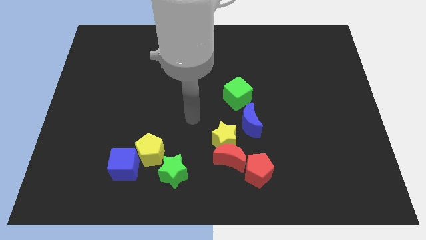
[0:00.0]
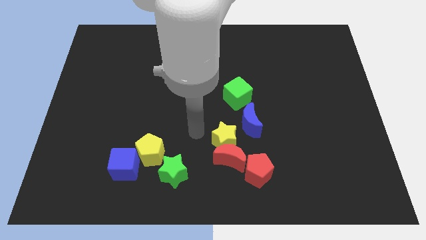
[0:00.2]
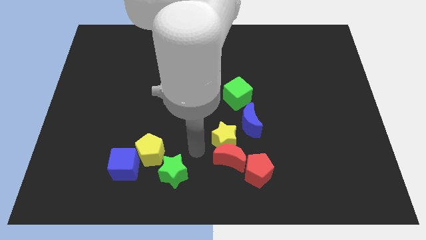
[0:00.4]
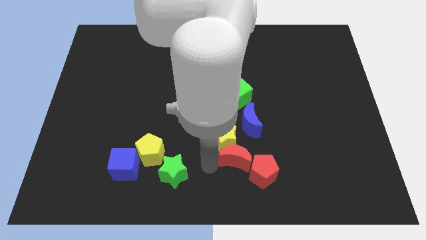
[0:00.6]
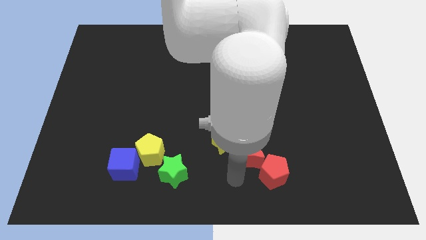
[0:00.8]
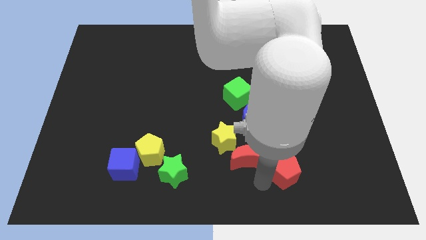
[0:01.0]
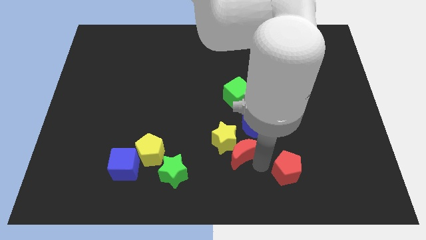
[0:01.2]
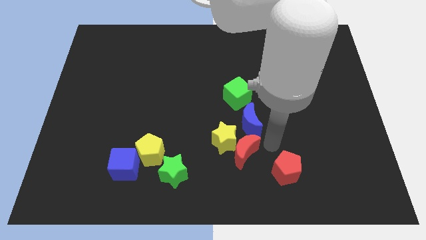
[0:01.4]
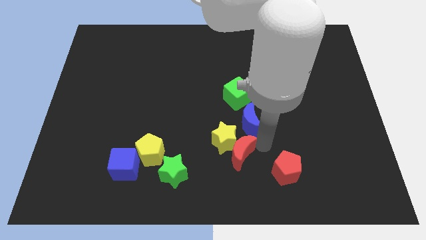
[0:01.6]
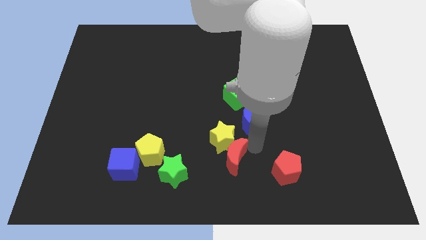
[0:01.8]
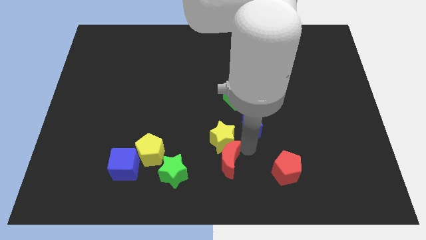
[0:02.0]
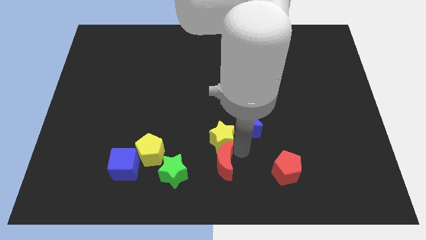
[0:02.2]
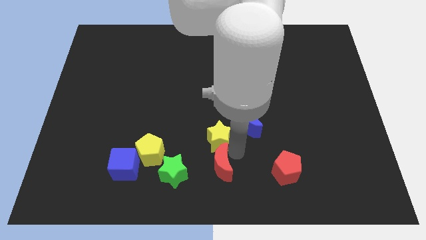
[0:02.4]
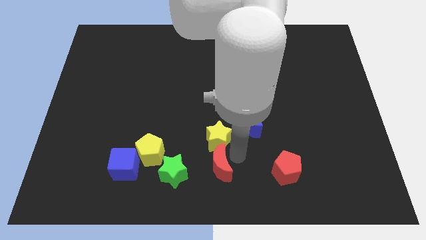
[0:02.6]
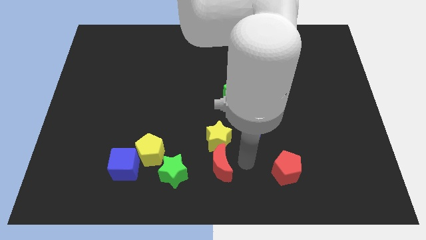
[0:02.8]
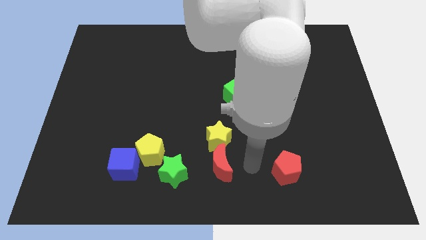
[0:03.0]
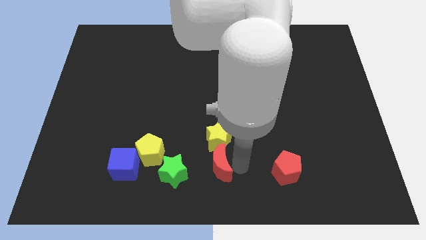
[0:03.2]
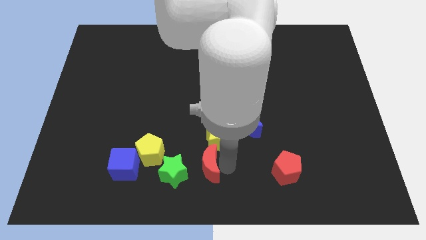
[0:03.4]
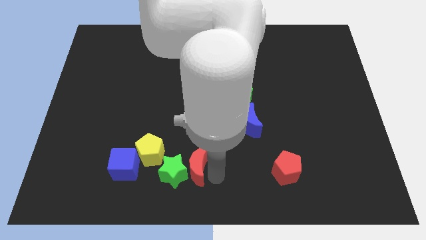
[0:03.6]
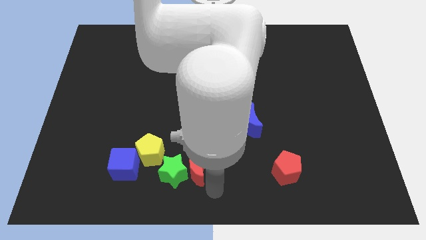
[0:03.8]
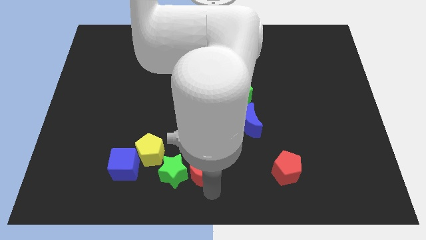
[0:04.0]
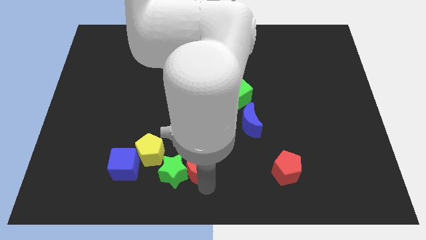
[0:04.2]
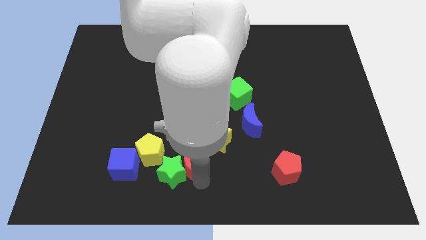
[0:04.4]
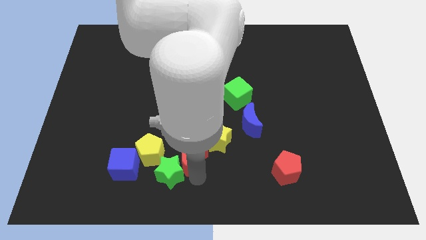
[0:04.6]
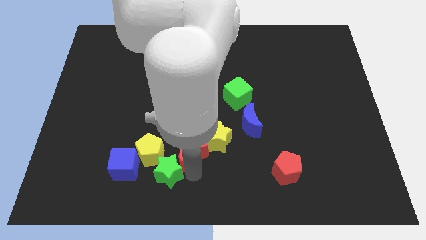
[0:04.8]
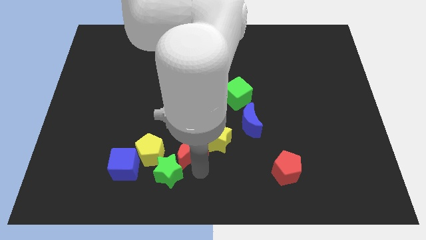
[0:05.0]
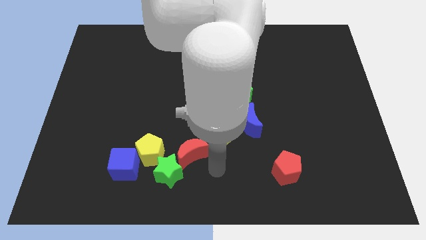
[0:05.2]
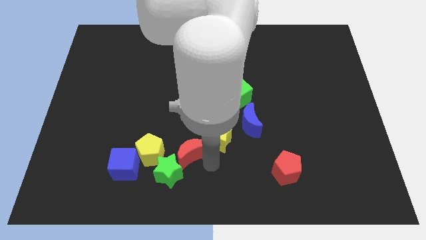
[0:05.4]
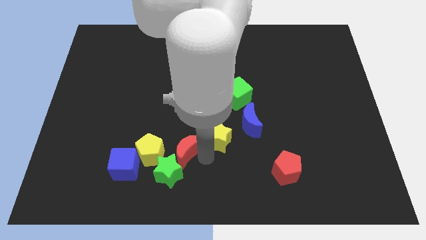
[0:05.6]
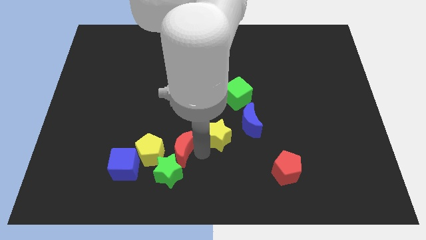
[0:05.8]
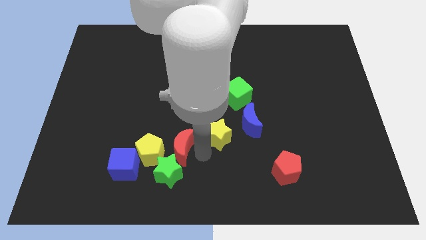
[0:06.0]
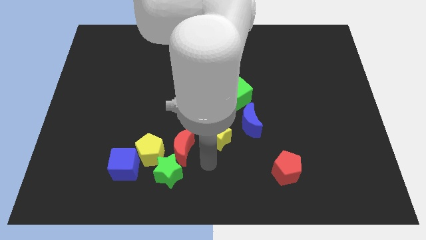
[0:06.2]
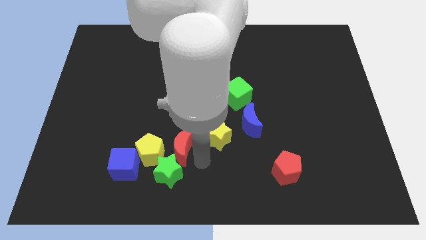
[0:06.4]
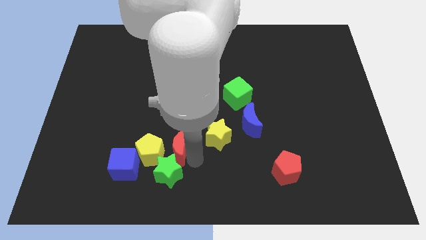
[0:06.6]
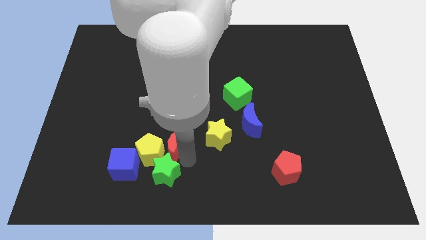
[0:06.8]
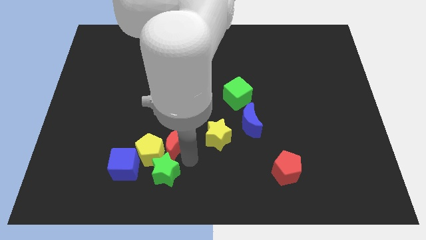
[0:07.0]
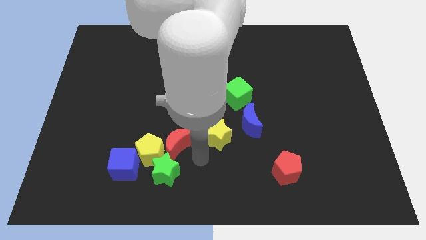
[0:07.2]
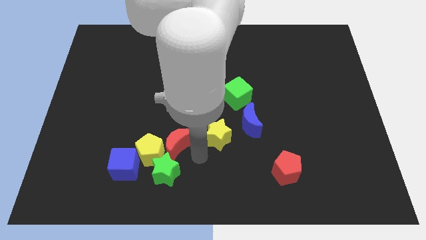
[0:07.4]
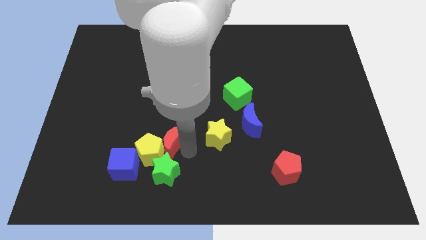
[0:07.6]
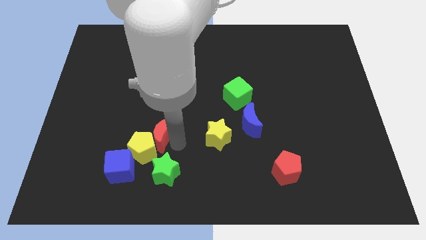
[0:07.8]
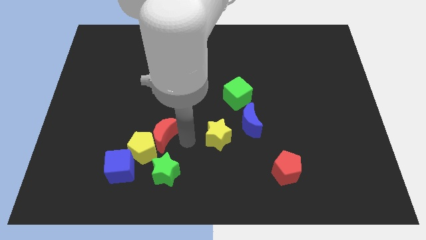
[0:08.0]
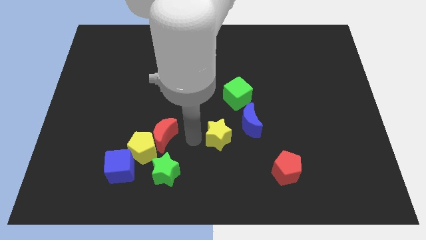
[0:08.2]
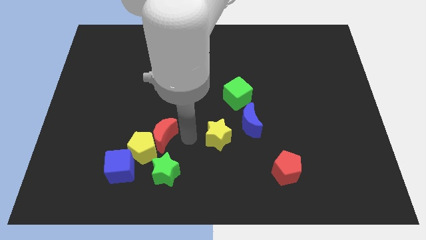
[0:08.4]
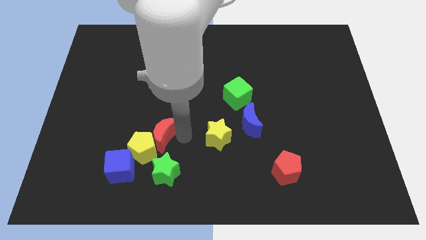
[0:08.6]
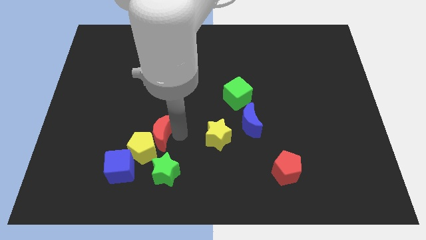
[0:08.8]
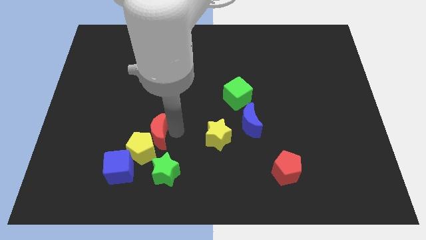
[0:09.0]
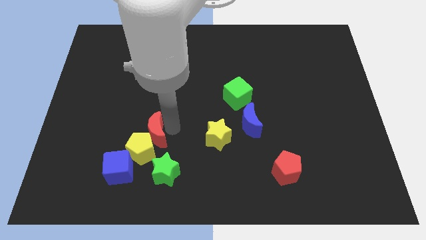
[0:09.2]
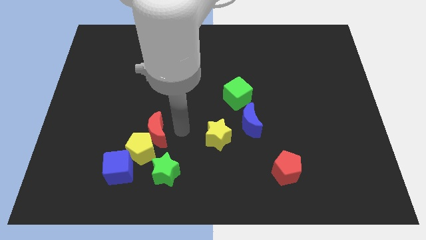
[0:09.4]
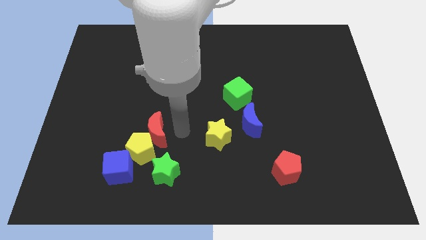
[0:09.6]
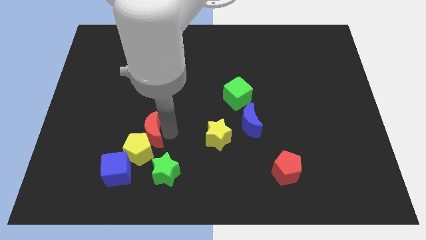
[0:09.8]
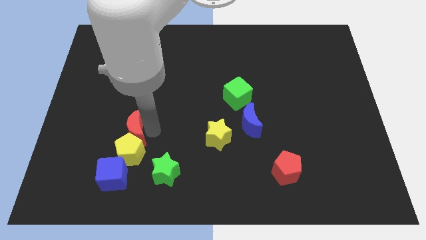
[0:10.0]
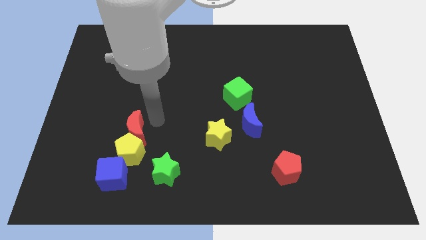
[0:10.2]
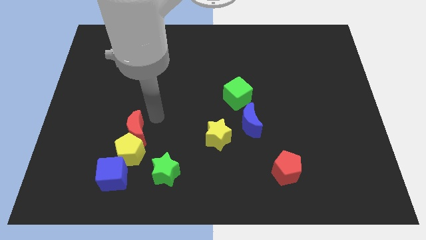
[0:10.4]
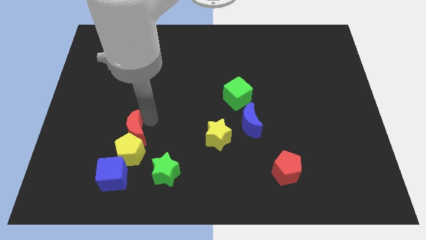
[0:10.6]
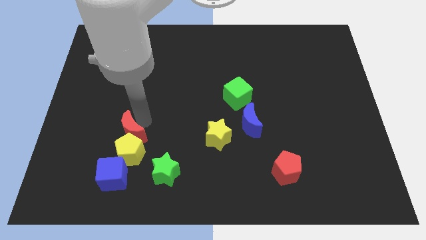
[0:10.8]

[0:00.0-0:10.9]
move the red moon left

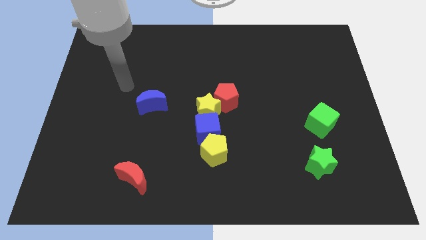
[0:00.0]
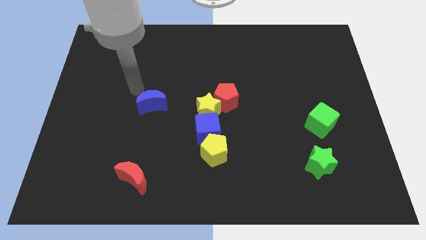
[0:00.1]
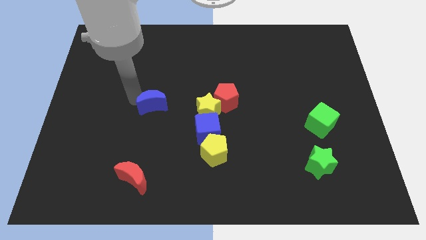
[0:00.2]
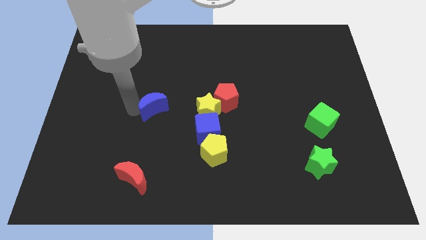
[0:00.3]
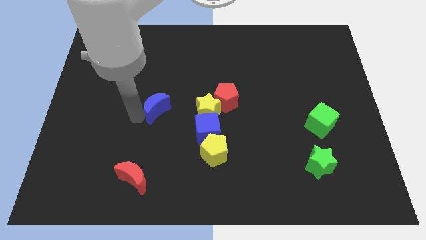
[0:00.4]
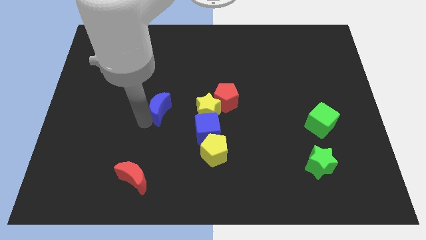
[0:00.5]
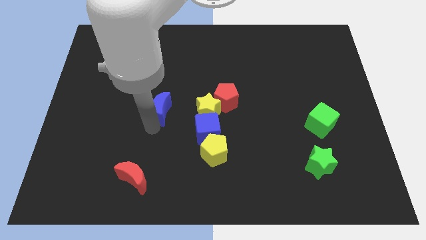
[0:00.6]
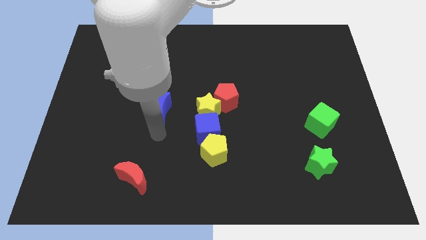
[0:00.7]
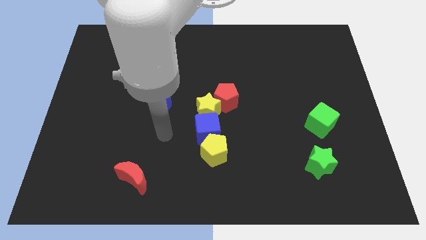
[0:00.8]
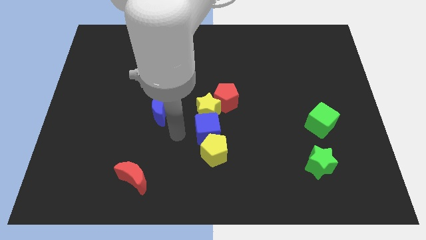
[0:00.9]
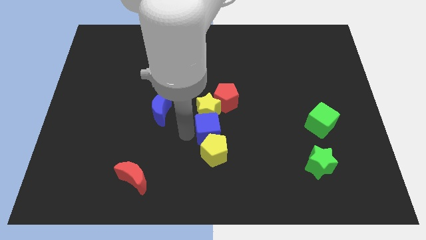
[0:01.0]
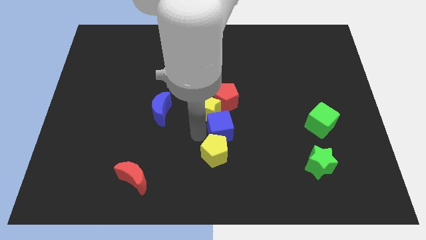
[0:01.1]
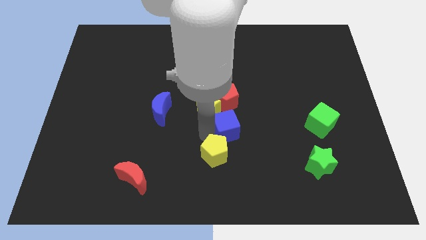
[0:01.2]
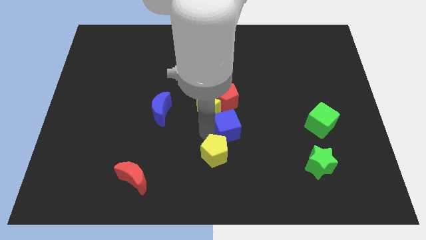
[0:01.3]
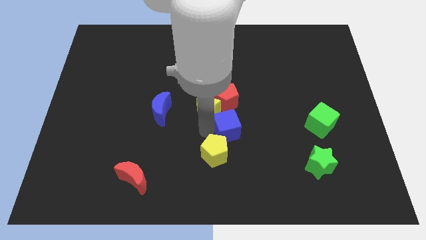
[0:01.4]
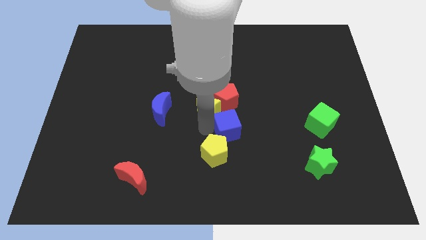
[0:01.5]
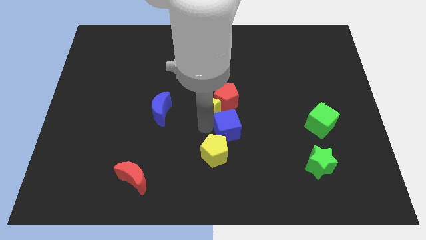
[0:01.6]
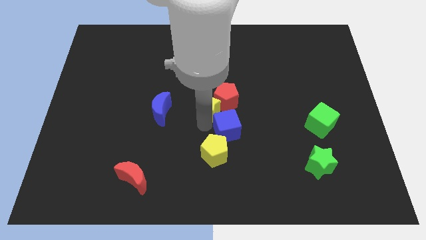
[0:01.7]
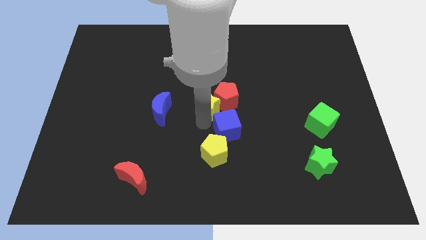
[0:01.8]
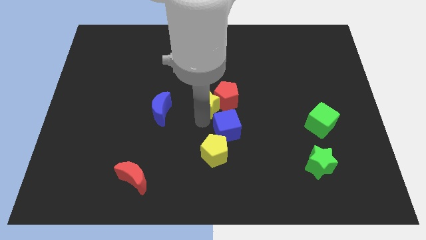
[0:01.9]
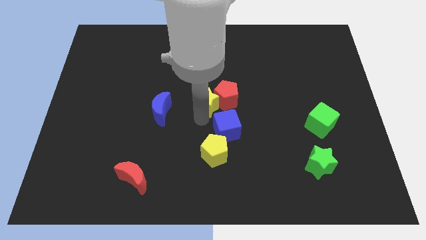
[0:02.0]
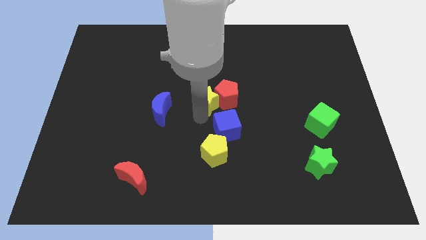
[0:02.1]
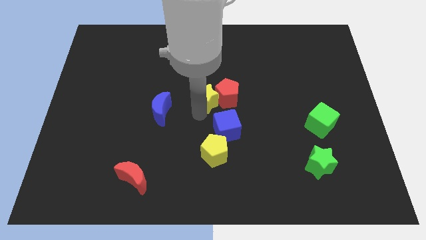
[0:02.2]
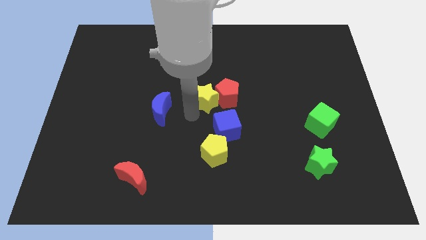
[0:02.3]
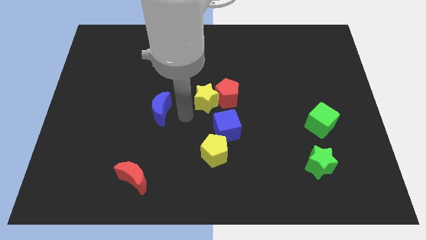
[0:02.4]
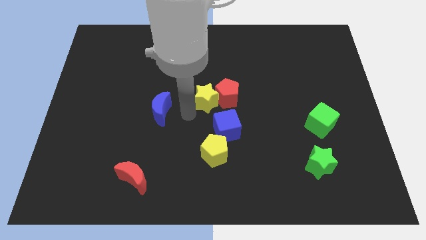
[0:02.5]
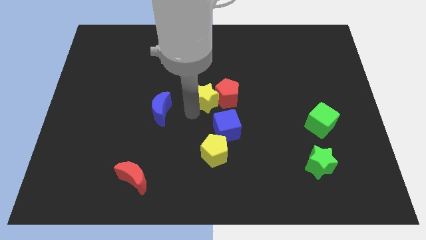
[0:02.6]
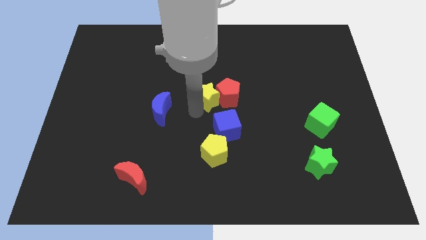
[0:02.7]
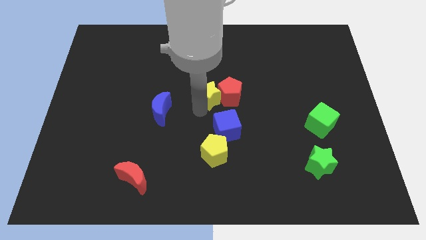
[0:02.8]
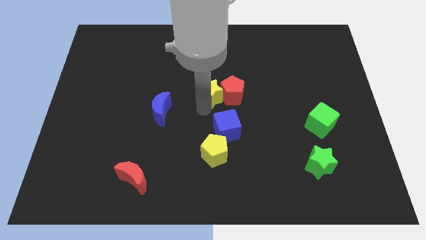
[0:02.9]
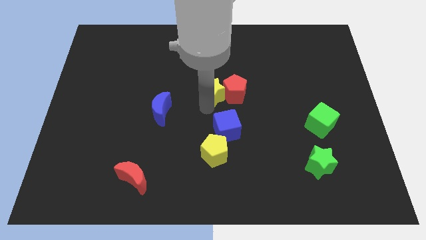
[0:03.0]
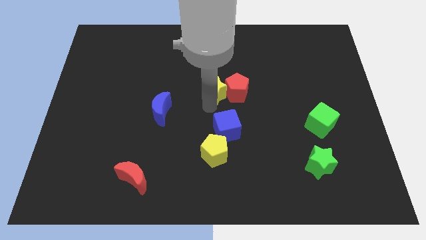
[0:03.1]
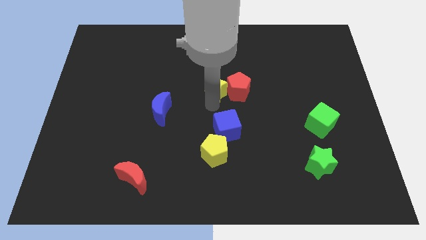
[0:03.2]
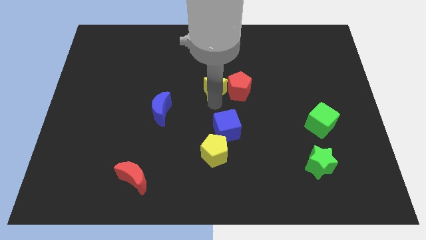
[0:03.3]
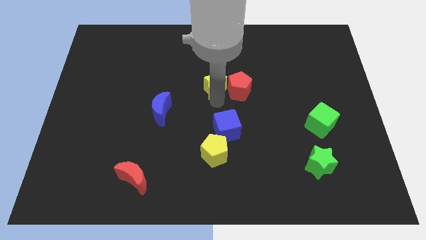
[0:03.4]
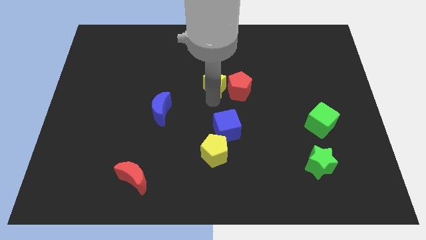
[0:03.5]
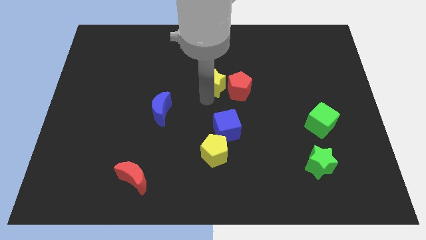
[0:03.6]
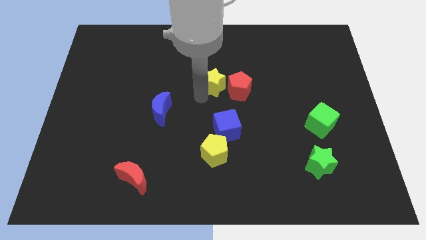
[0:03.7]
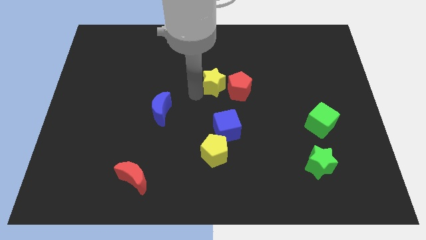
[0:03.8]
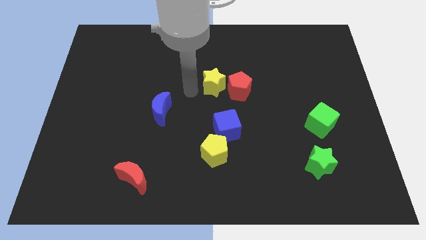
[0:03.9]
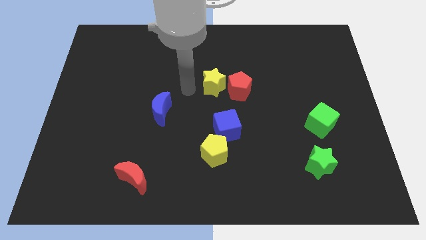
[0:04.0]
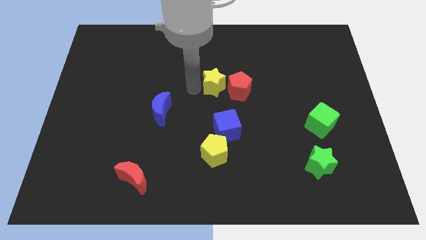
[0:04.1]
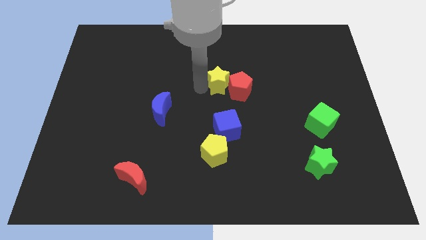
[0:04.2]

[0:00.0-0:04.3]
slightly push the yellow star upwards and right
